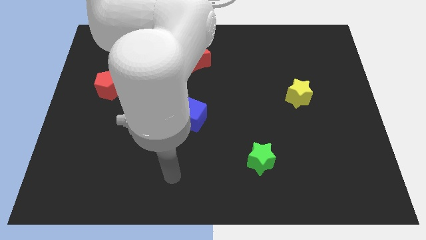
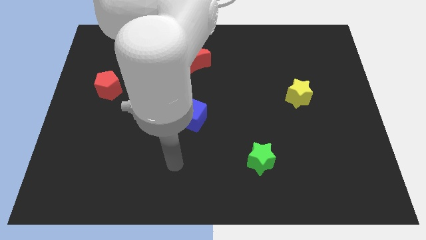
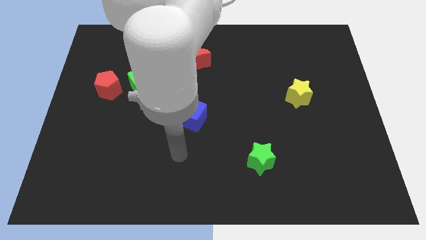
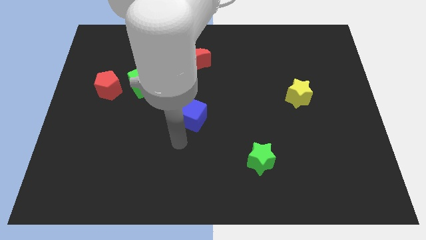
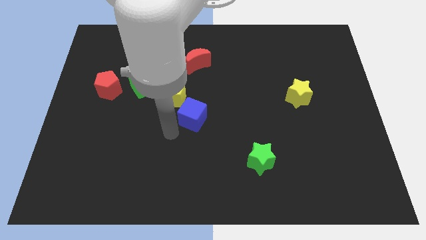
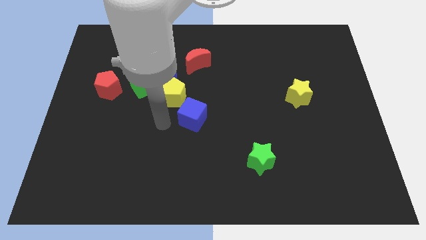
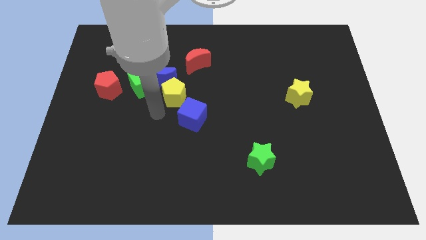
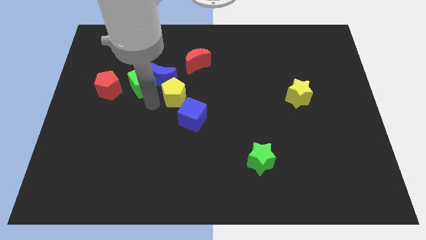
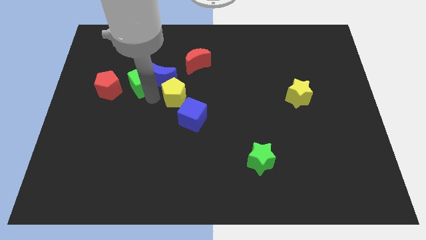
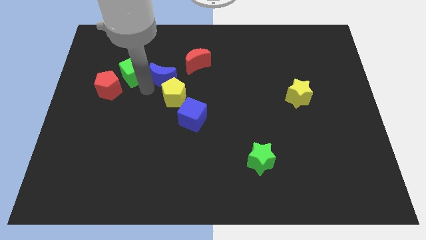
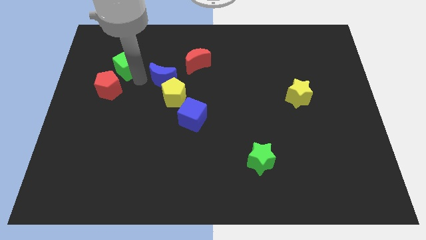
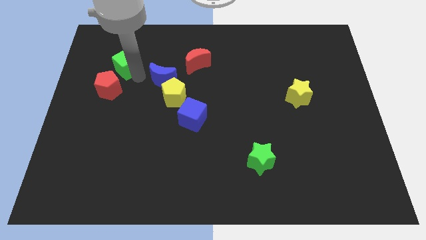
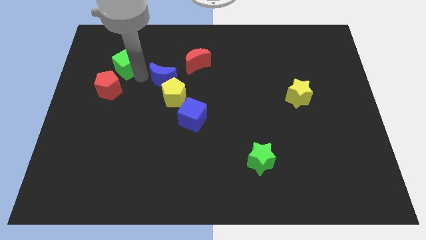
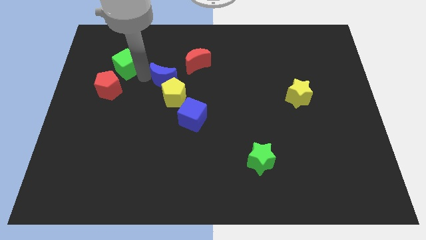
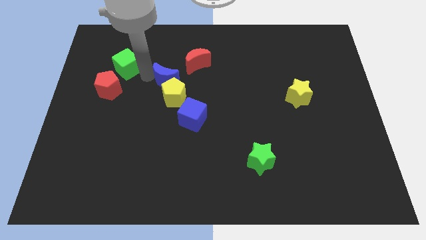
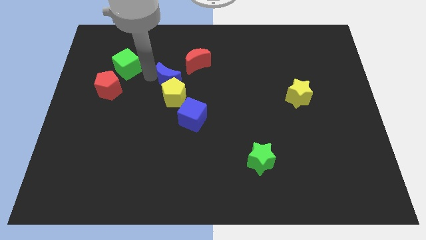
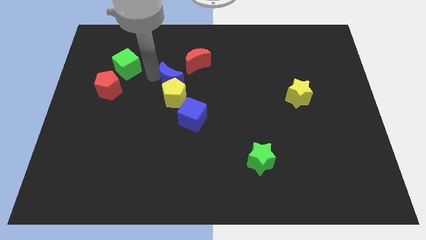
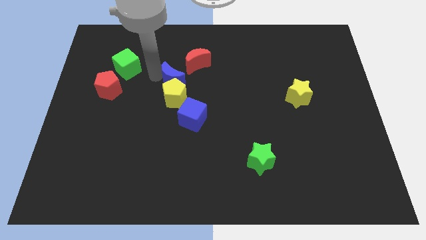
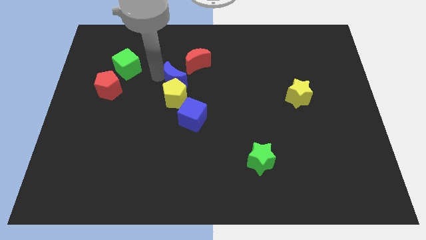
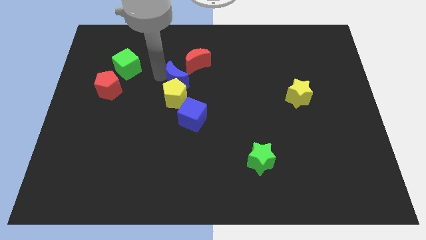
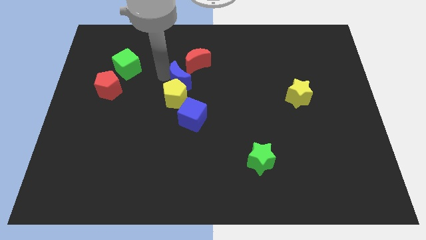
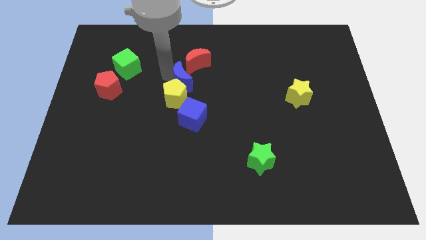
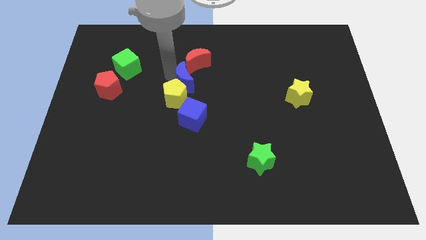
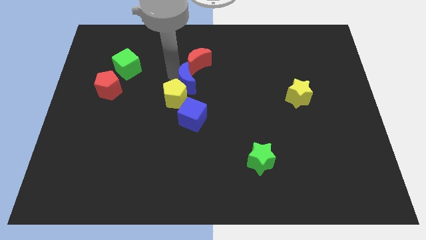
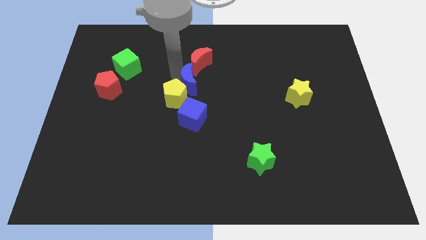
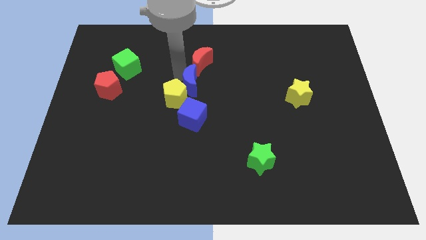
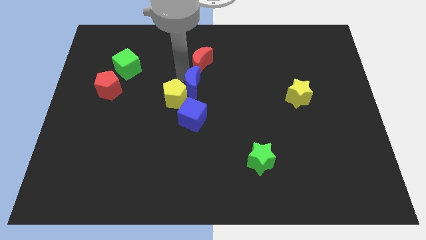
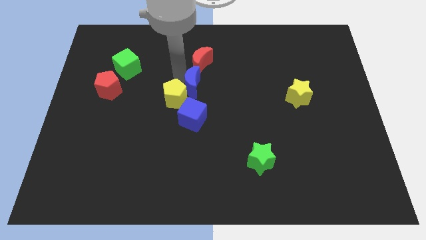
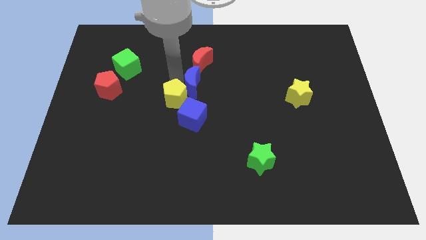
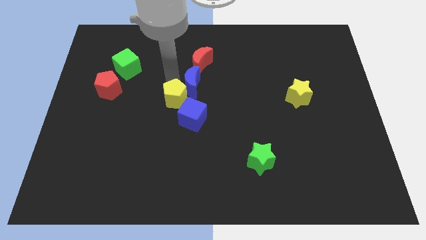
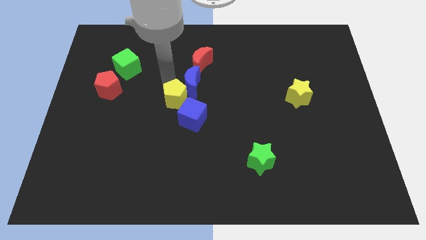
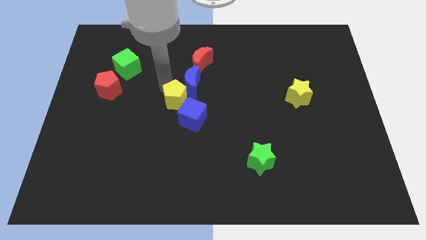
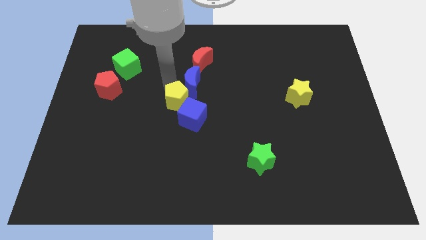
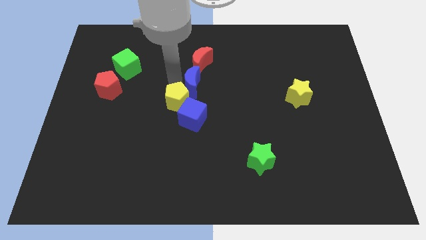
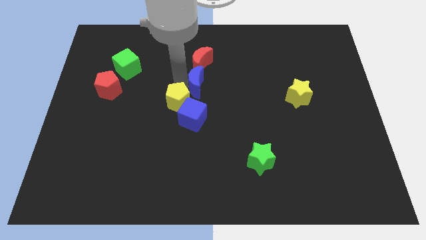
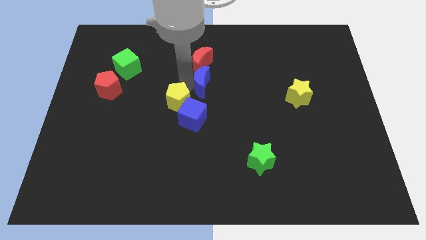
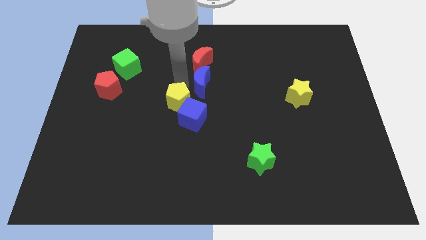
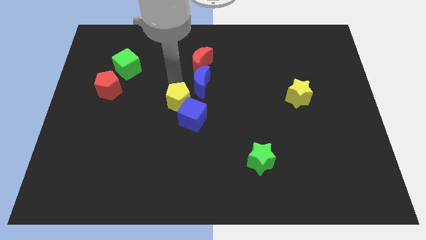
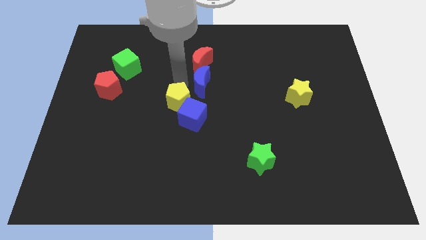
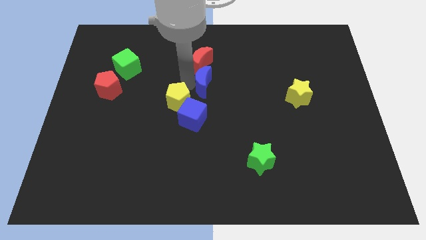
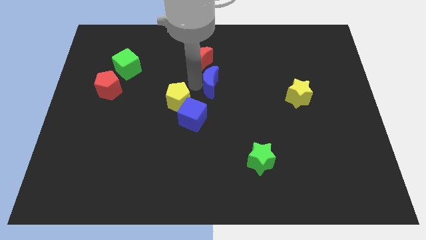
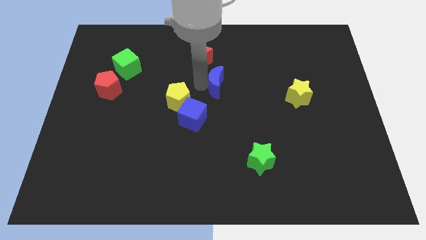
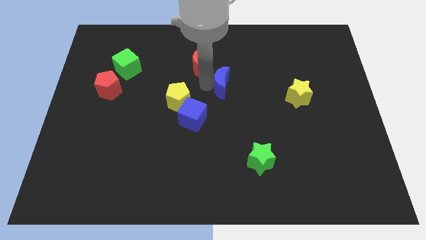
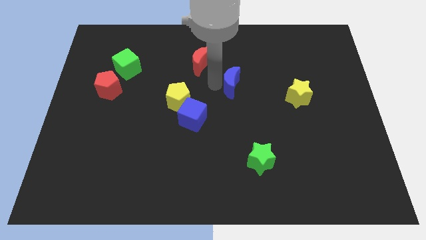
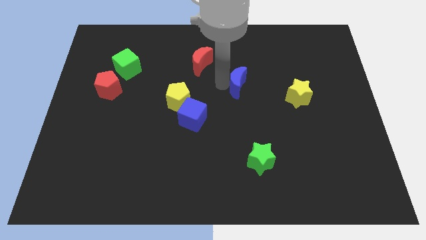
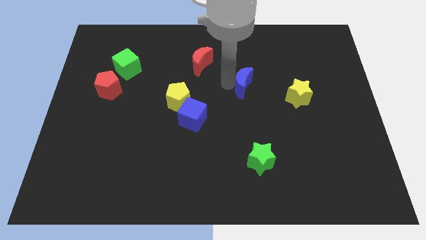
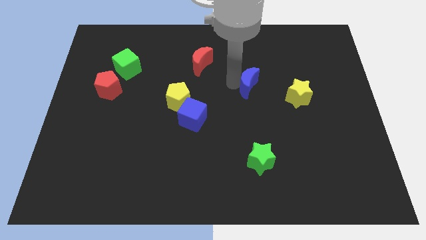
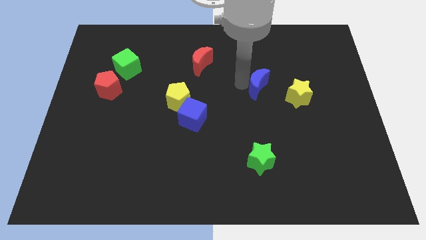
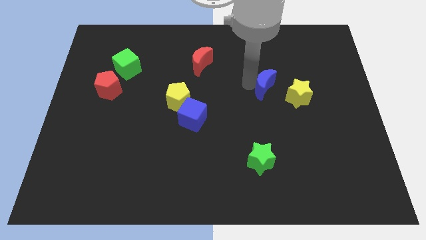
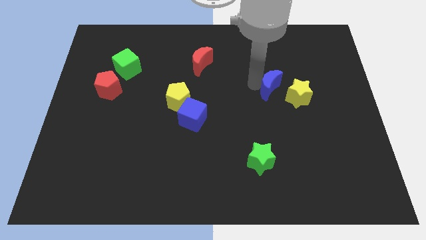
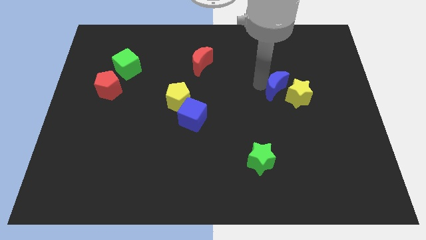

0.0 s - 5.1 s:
move the blue moon close to the yellow star

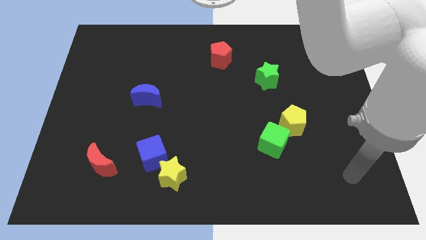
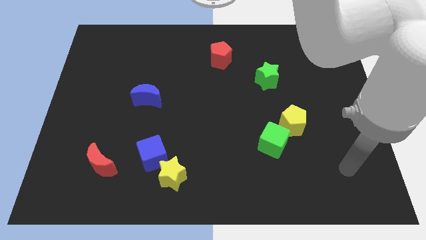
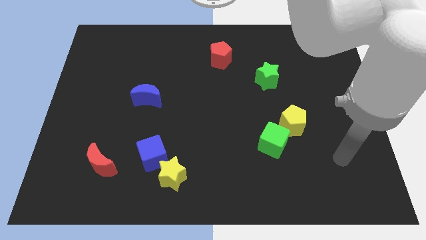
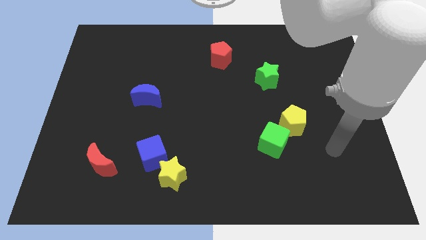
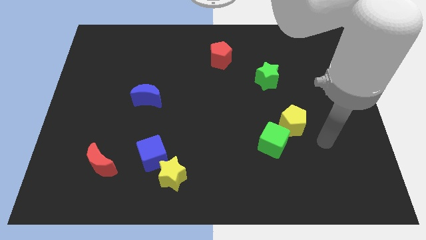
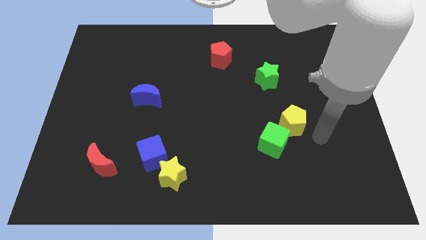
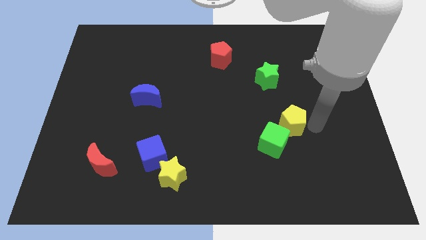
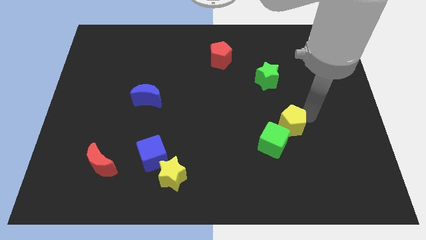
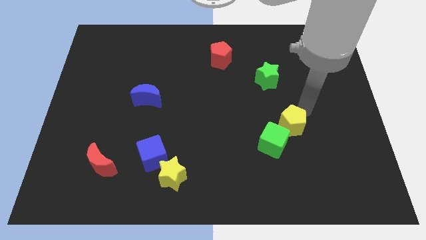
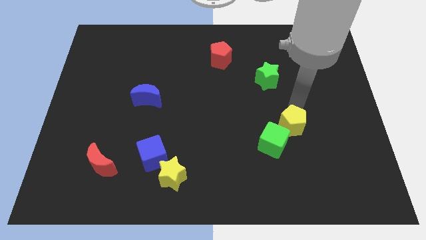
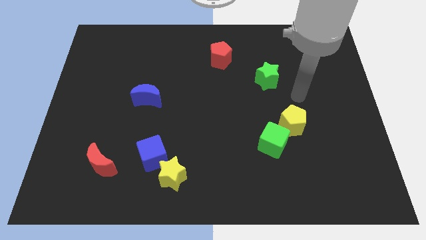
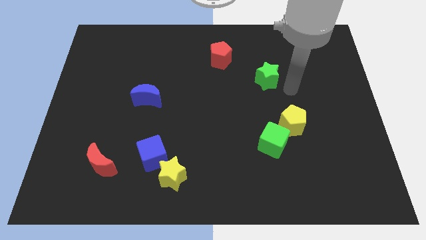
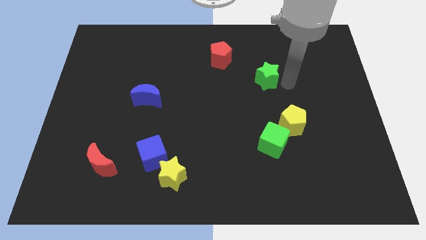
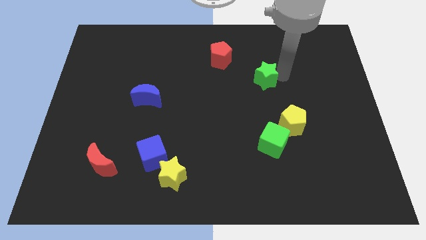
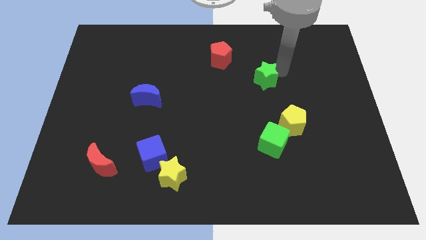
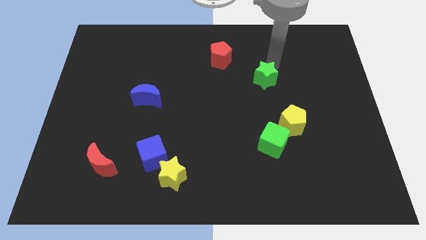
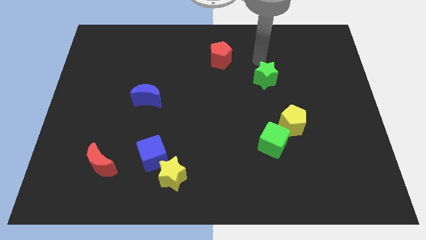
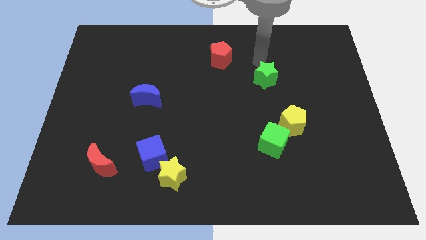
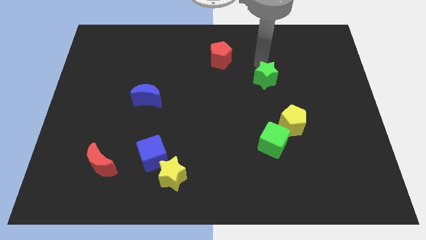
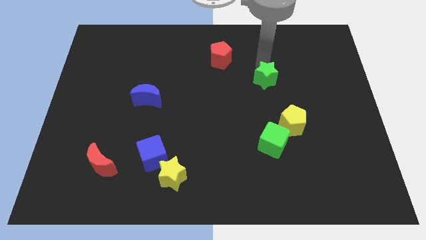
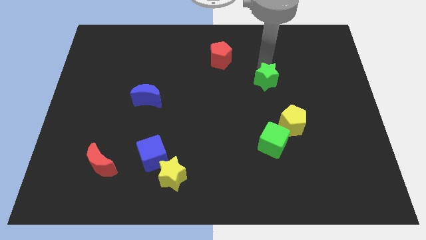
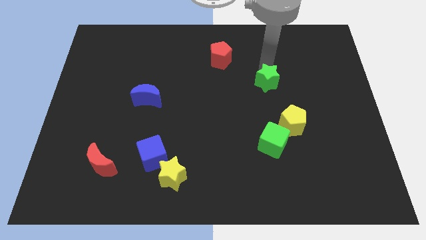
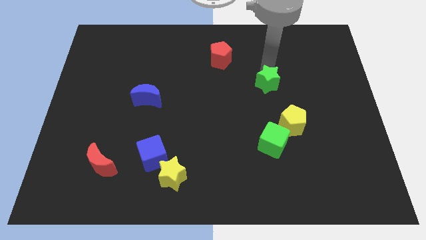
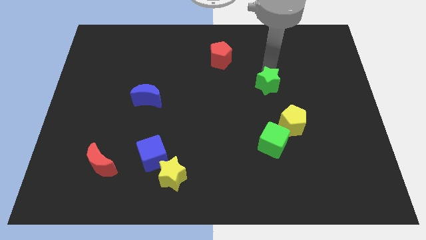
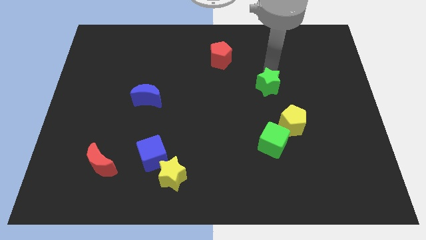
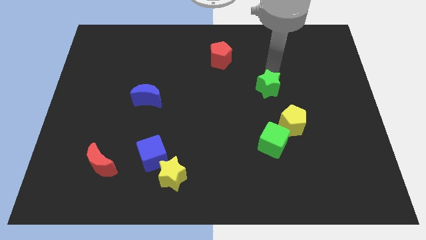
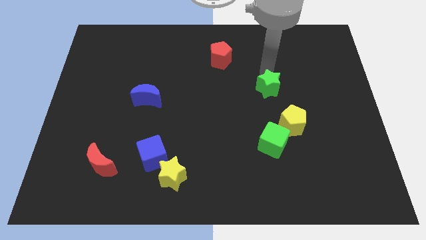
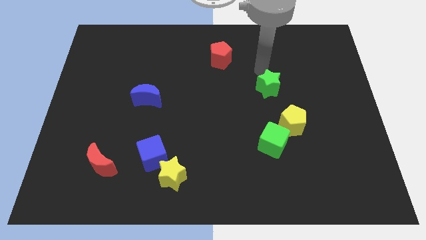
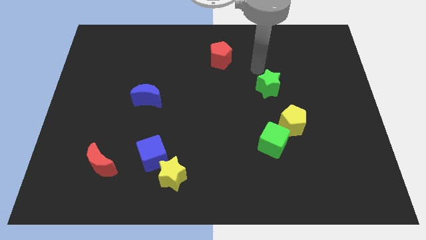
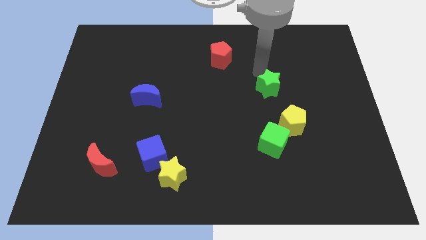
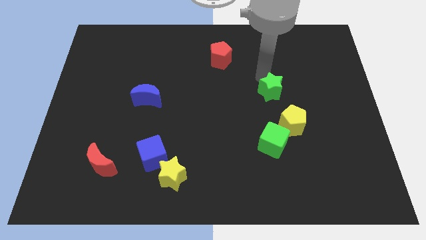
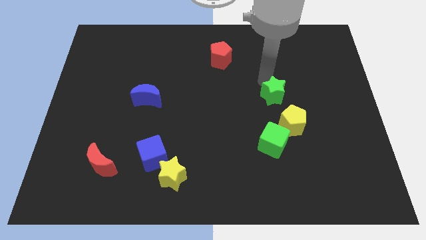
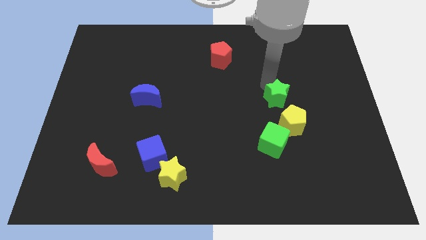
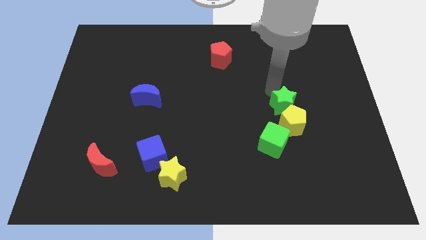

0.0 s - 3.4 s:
move the green star towards the yellow pentagon
